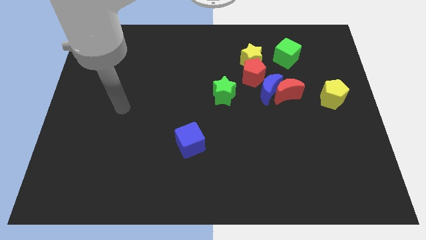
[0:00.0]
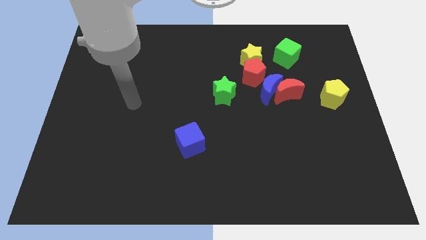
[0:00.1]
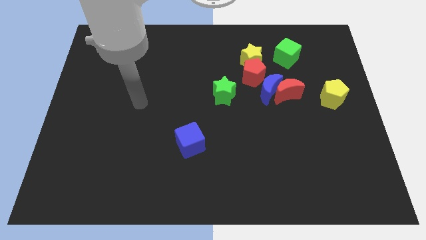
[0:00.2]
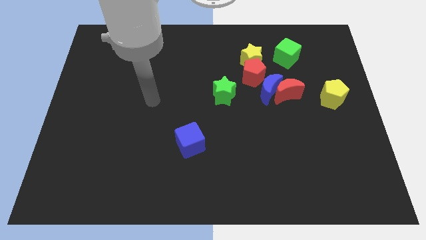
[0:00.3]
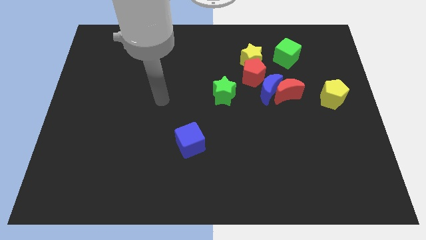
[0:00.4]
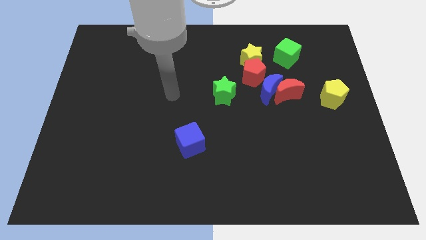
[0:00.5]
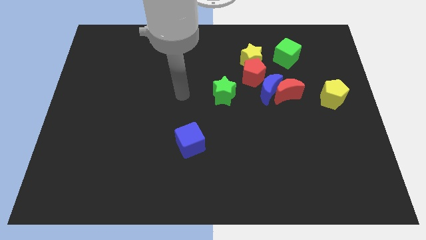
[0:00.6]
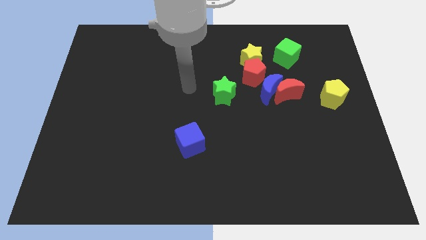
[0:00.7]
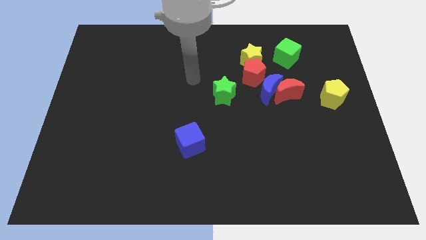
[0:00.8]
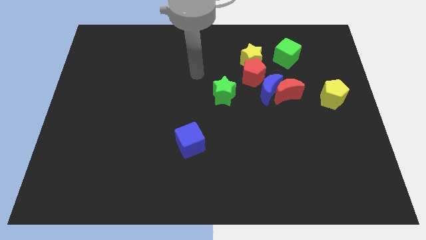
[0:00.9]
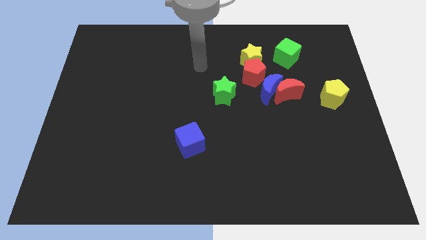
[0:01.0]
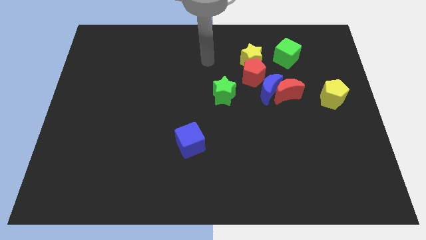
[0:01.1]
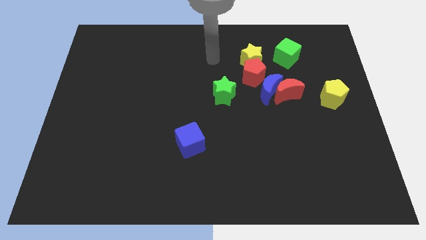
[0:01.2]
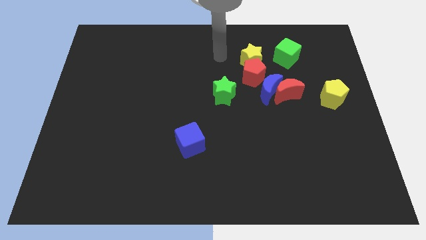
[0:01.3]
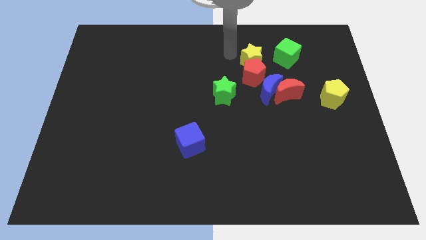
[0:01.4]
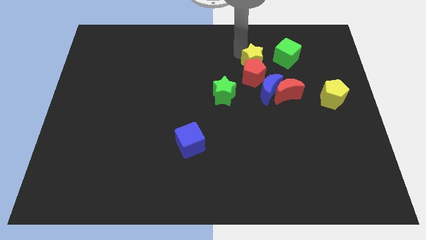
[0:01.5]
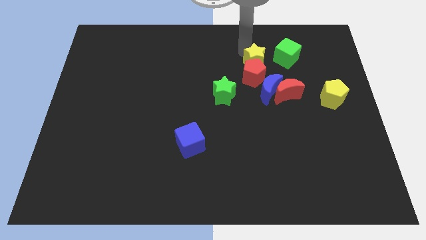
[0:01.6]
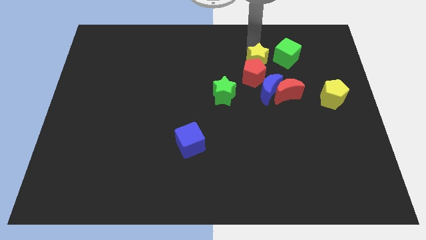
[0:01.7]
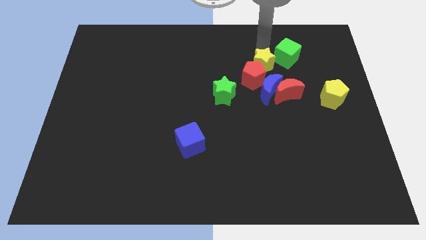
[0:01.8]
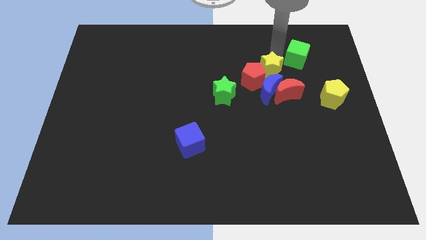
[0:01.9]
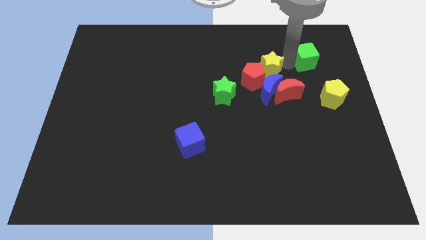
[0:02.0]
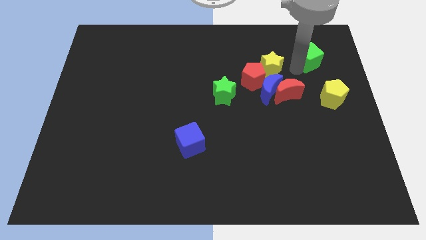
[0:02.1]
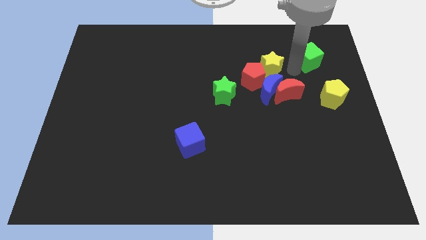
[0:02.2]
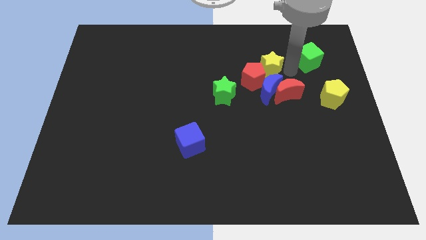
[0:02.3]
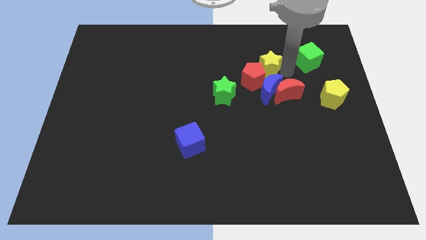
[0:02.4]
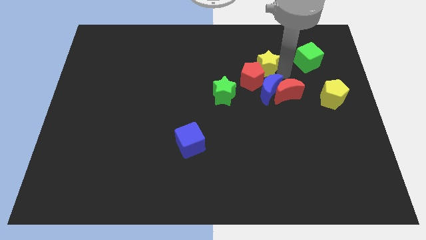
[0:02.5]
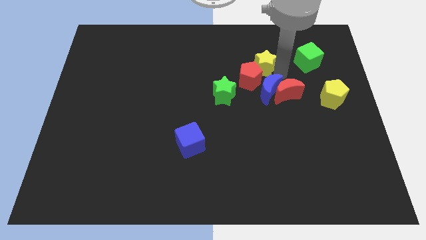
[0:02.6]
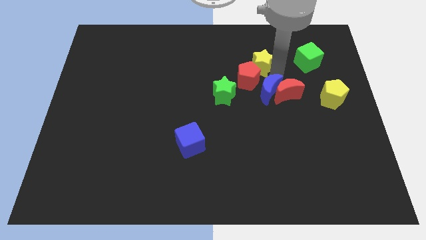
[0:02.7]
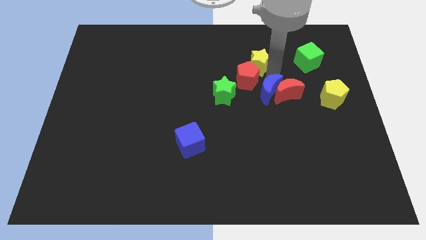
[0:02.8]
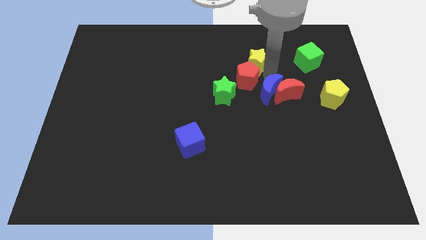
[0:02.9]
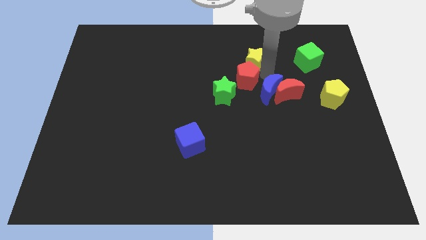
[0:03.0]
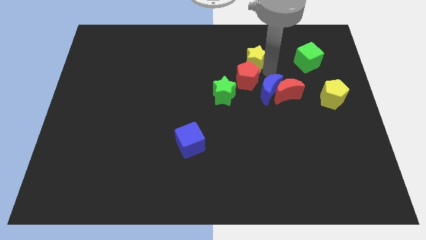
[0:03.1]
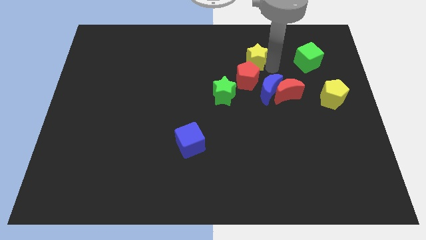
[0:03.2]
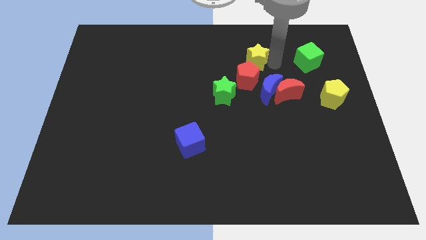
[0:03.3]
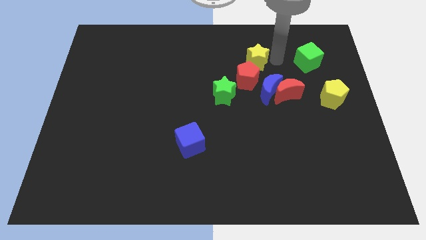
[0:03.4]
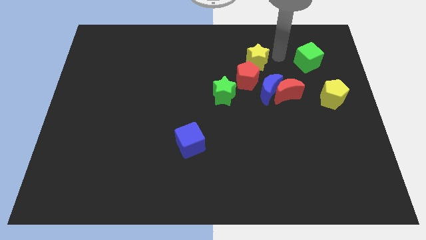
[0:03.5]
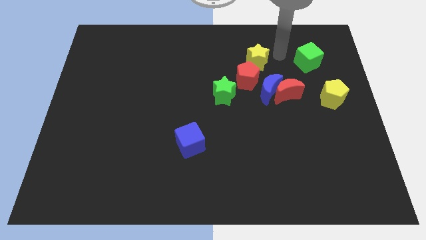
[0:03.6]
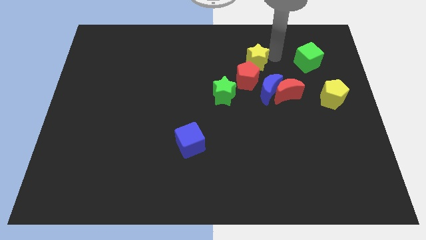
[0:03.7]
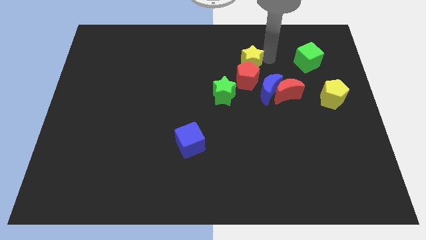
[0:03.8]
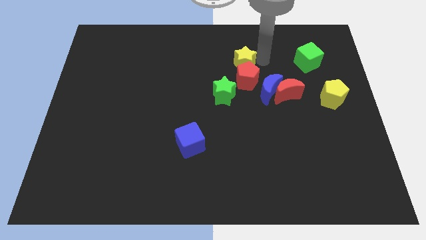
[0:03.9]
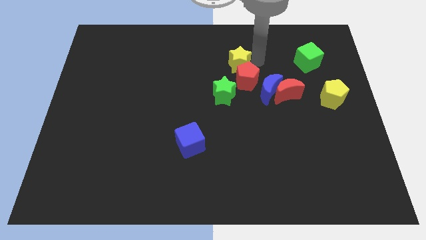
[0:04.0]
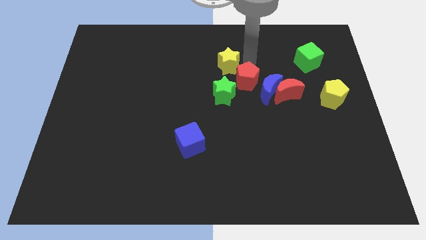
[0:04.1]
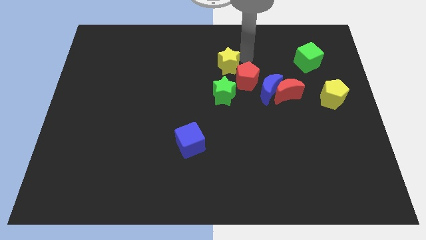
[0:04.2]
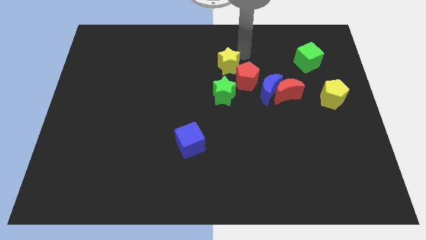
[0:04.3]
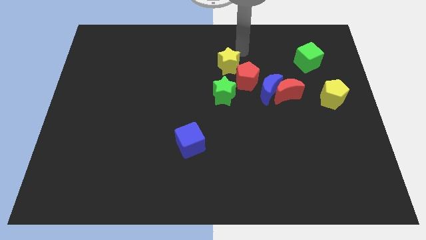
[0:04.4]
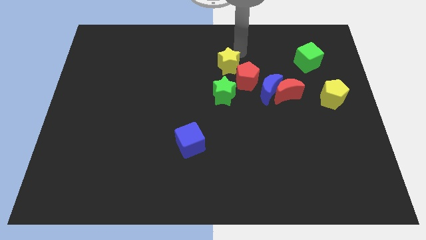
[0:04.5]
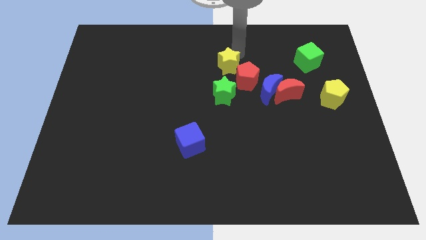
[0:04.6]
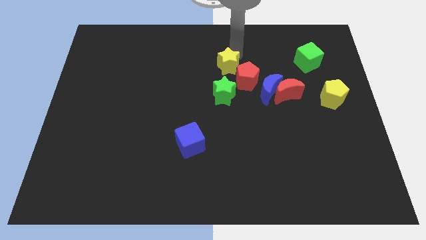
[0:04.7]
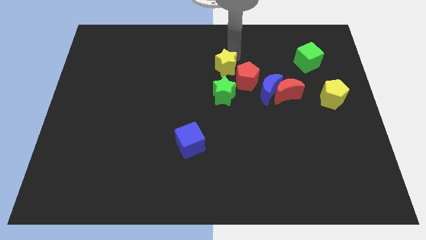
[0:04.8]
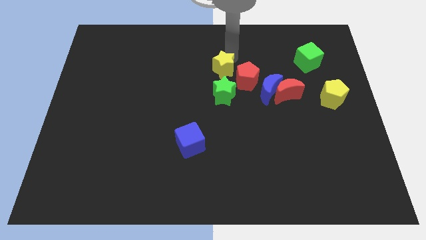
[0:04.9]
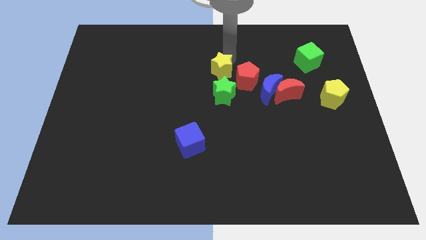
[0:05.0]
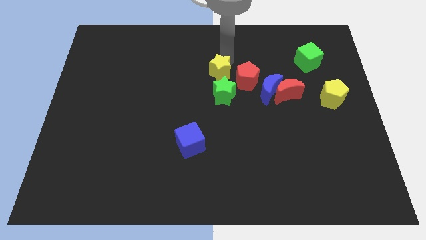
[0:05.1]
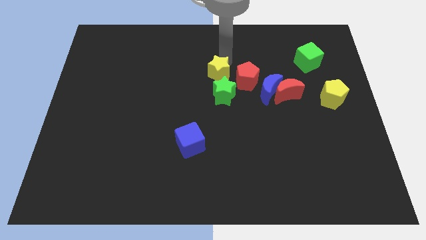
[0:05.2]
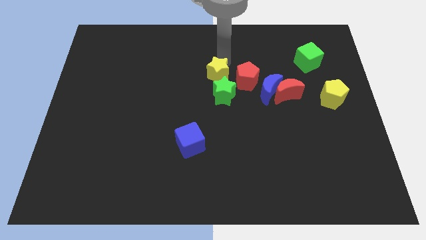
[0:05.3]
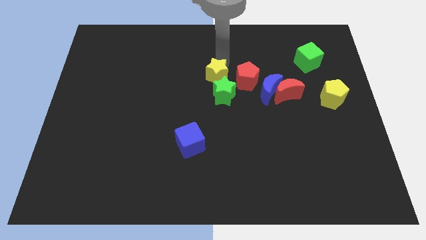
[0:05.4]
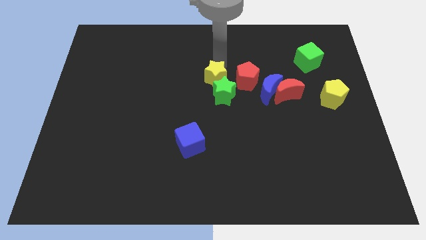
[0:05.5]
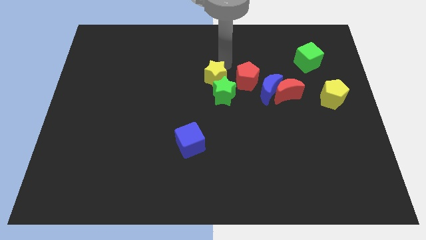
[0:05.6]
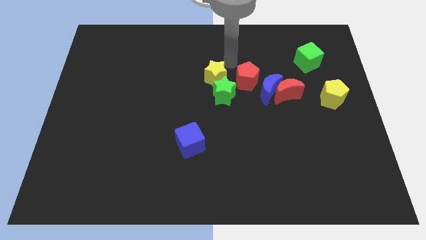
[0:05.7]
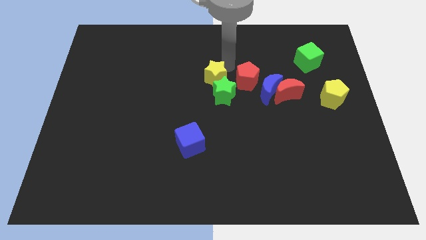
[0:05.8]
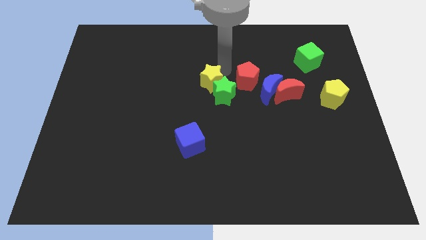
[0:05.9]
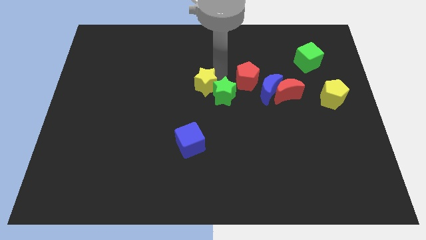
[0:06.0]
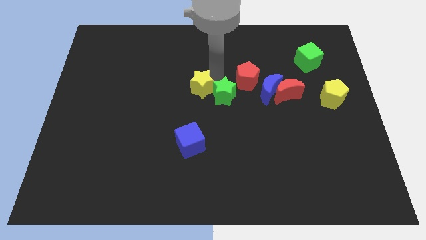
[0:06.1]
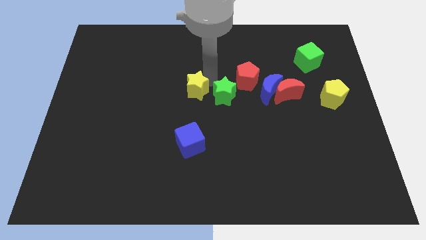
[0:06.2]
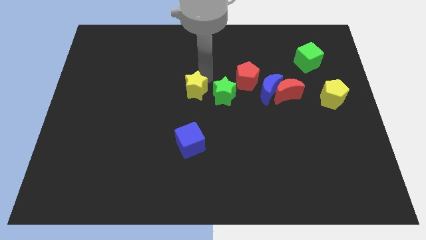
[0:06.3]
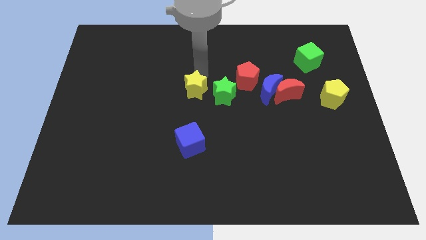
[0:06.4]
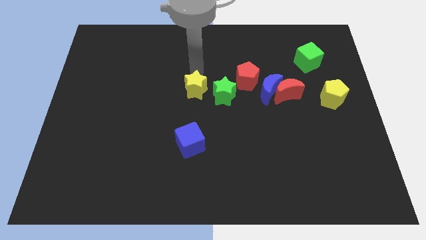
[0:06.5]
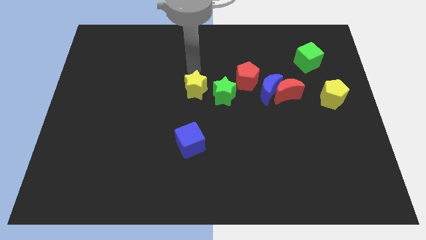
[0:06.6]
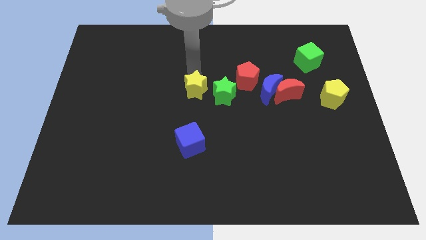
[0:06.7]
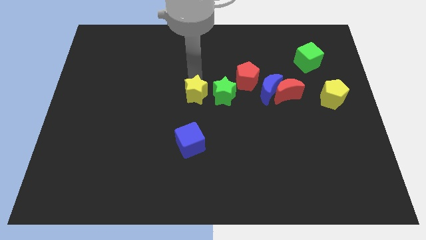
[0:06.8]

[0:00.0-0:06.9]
put the yellow star diagonally down and to the left of the green star
